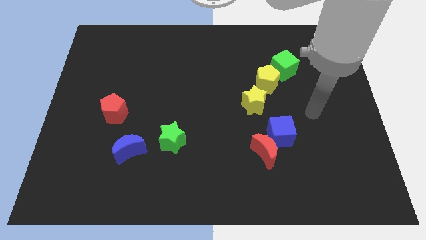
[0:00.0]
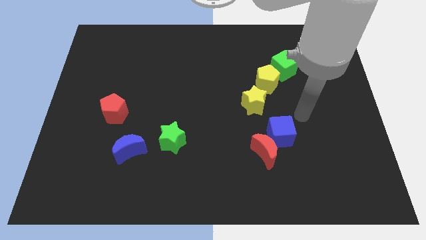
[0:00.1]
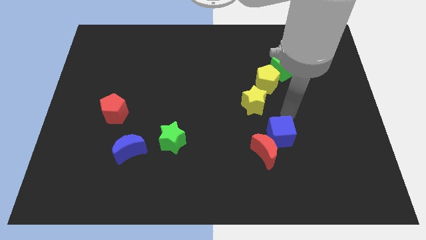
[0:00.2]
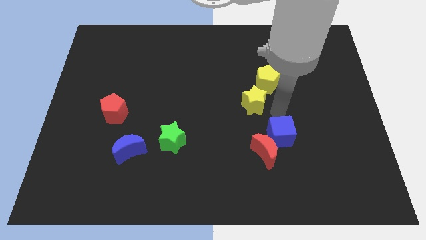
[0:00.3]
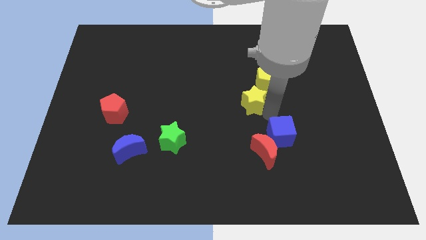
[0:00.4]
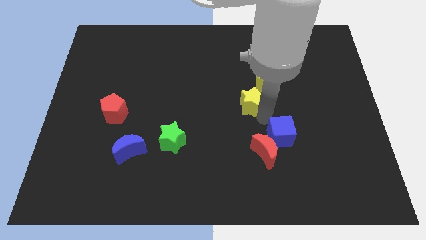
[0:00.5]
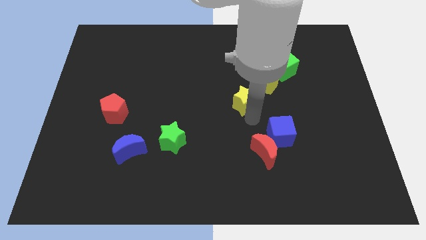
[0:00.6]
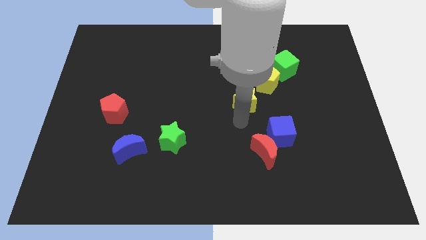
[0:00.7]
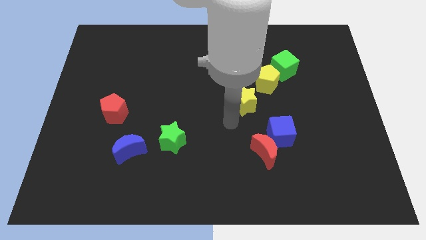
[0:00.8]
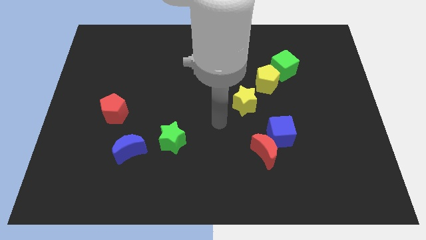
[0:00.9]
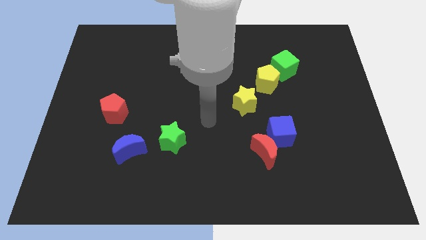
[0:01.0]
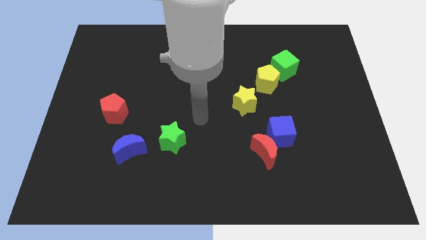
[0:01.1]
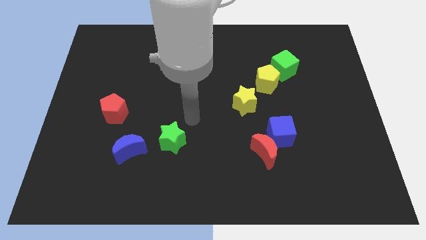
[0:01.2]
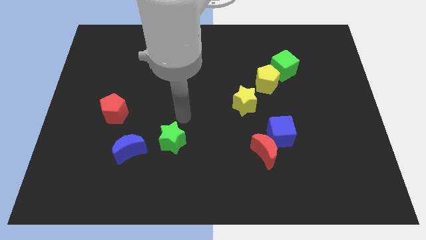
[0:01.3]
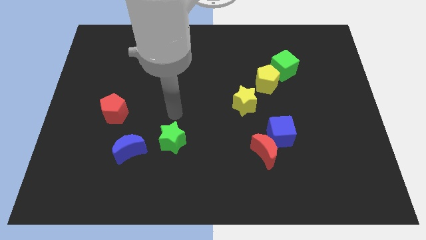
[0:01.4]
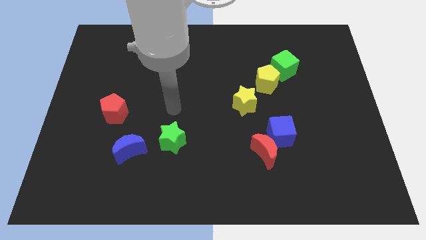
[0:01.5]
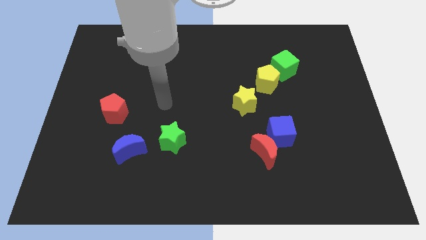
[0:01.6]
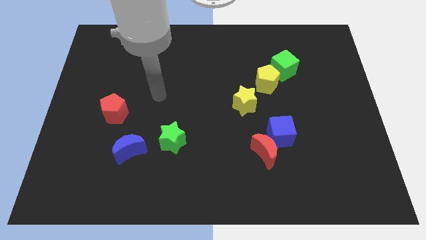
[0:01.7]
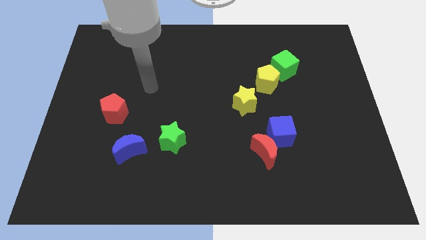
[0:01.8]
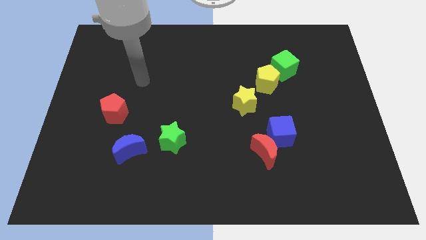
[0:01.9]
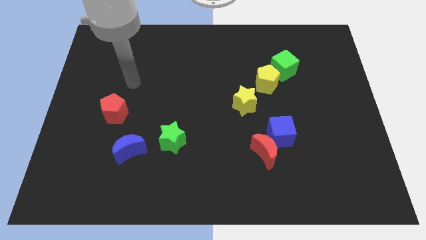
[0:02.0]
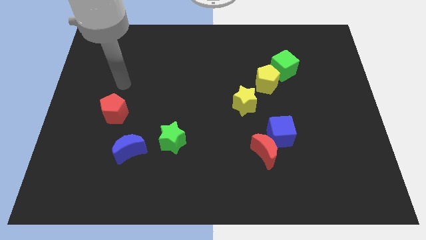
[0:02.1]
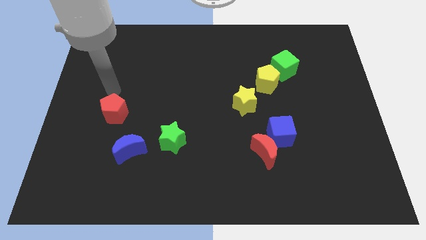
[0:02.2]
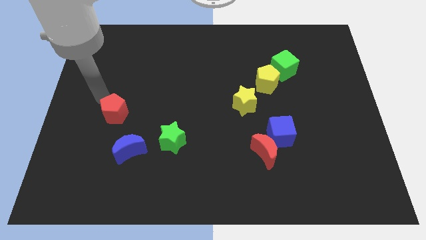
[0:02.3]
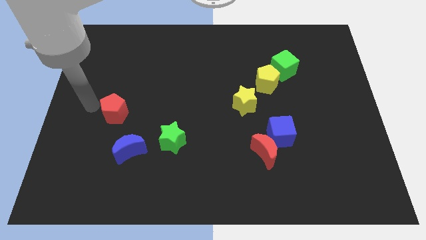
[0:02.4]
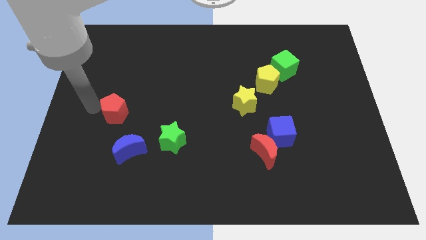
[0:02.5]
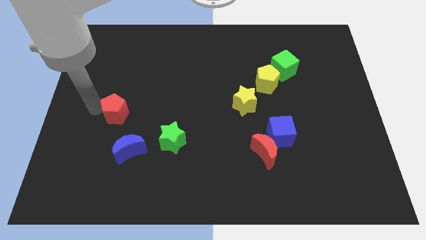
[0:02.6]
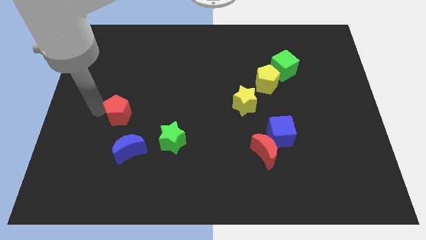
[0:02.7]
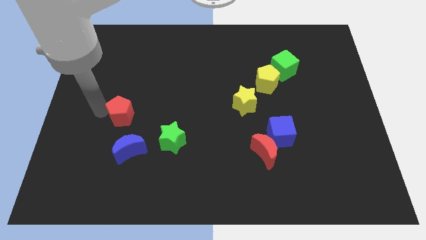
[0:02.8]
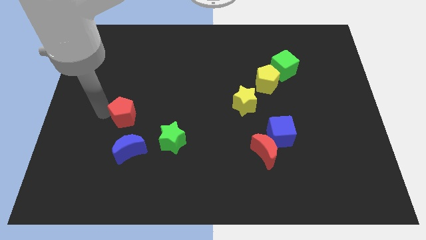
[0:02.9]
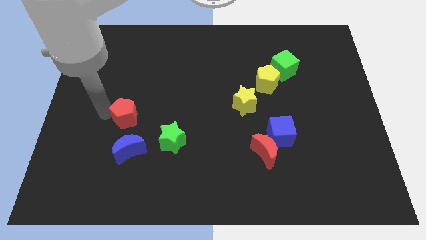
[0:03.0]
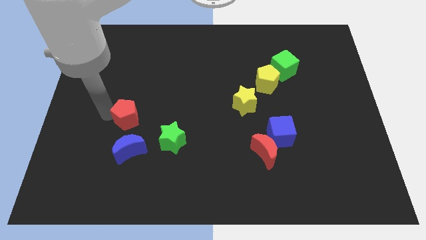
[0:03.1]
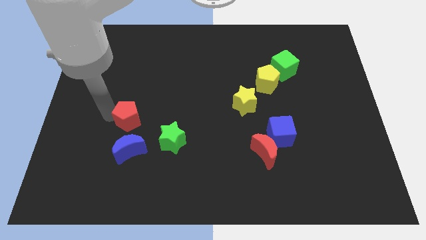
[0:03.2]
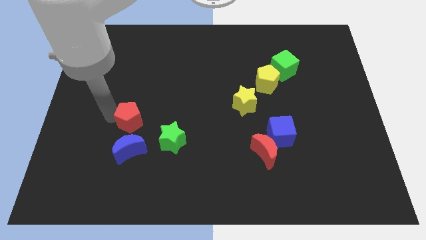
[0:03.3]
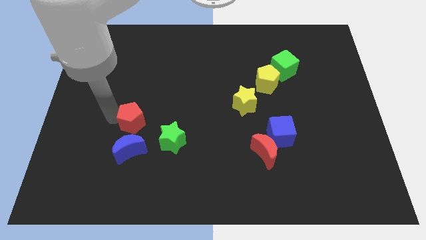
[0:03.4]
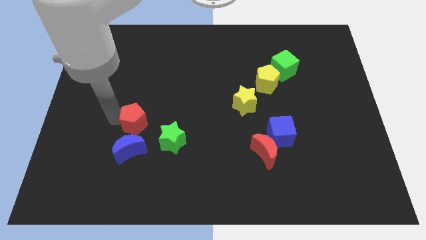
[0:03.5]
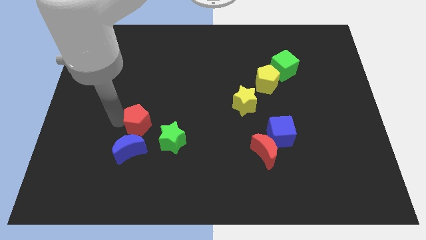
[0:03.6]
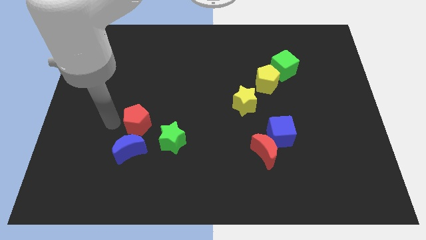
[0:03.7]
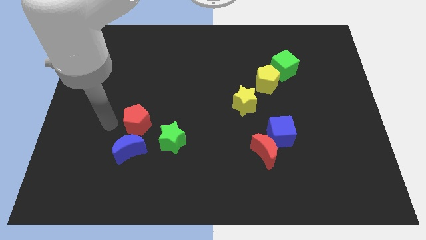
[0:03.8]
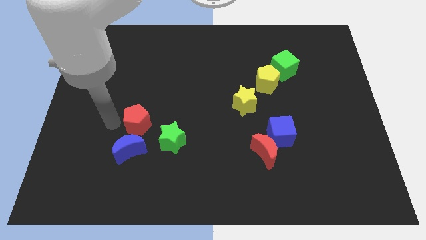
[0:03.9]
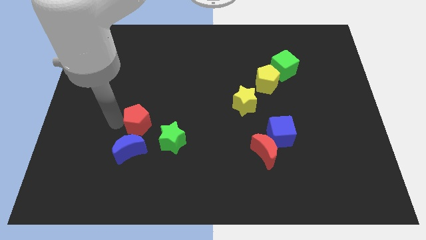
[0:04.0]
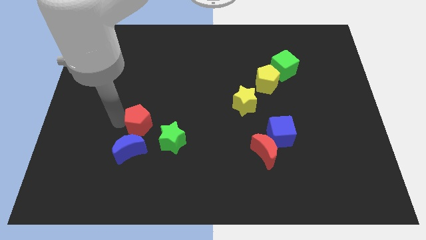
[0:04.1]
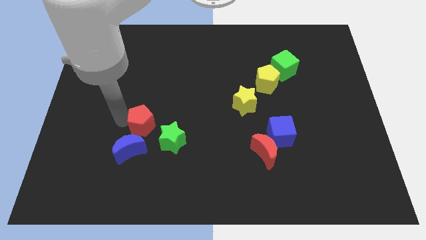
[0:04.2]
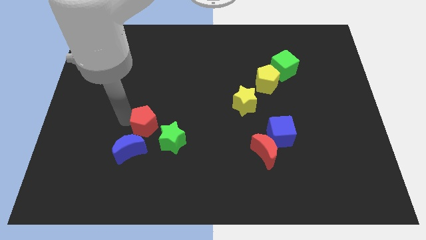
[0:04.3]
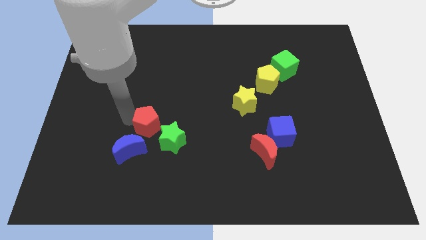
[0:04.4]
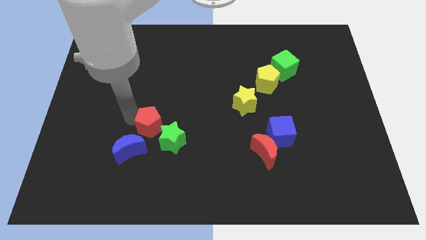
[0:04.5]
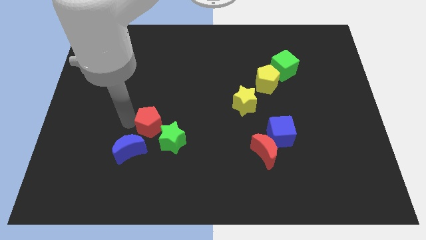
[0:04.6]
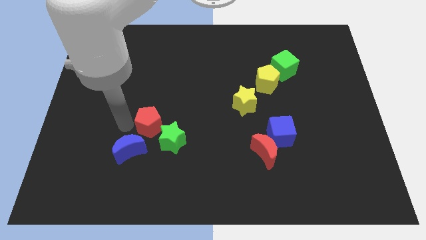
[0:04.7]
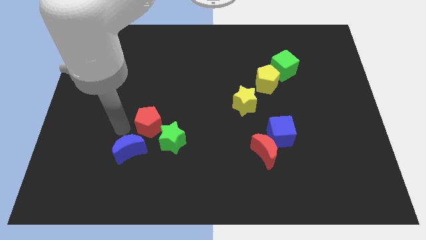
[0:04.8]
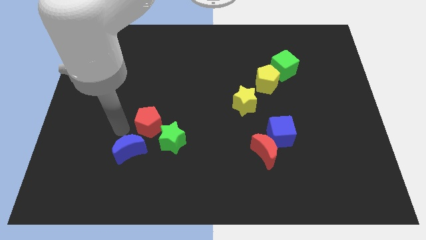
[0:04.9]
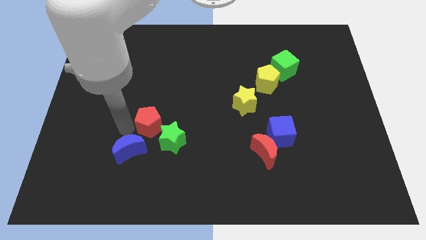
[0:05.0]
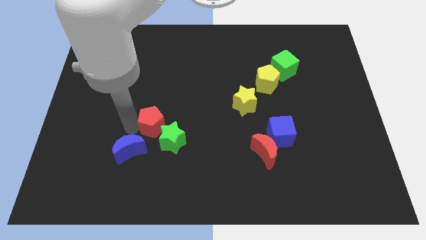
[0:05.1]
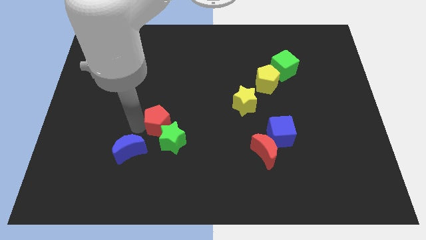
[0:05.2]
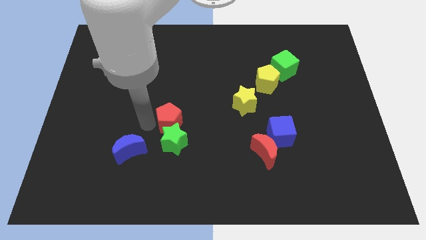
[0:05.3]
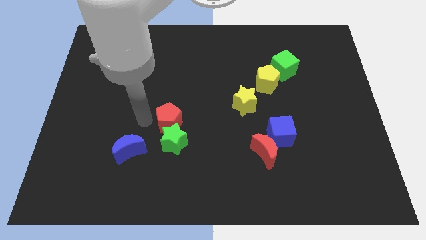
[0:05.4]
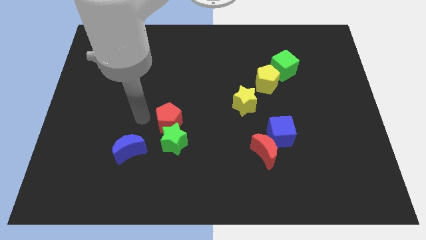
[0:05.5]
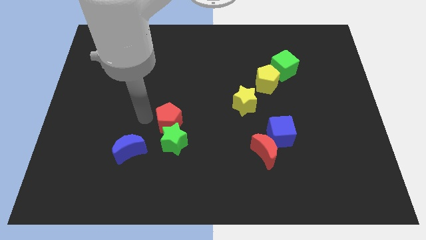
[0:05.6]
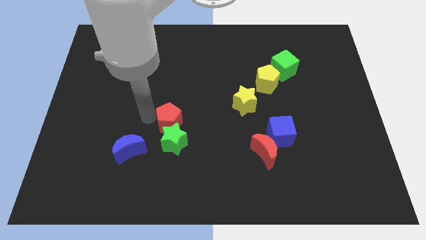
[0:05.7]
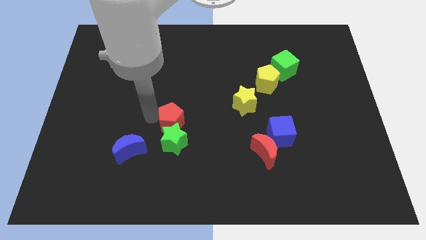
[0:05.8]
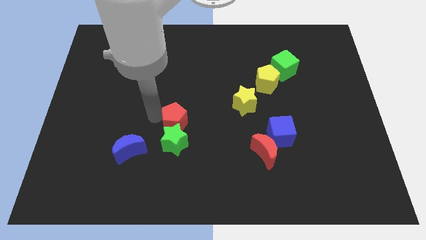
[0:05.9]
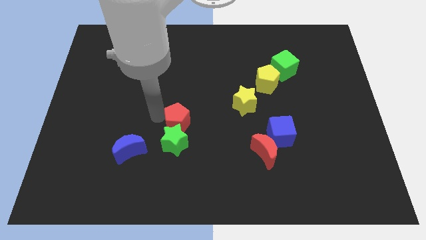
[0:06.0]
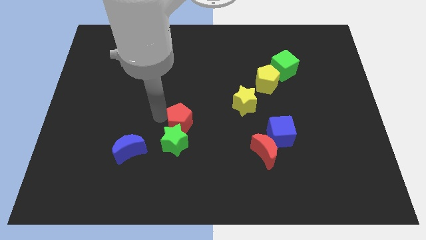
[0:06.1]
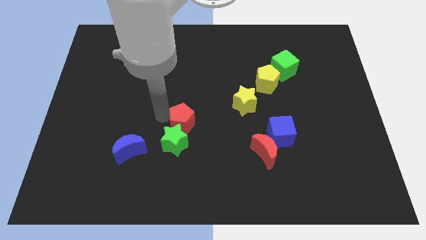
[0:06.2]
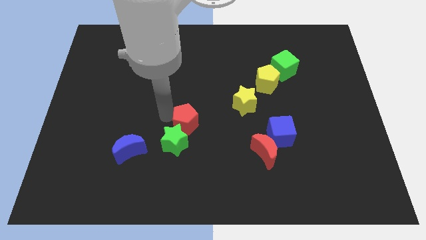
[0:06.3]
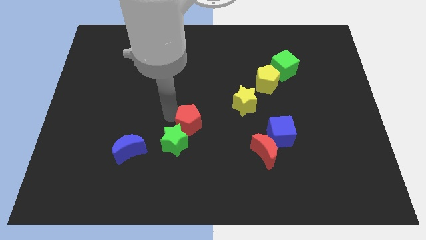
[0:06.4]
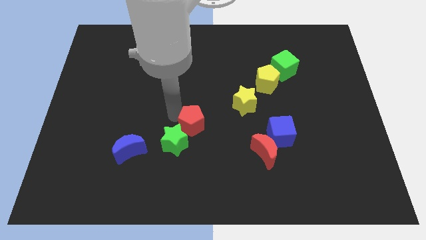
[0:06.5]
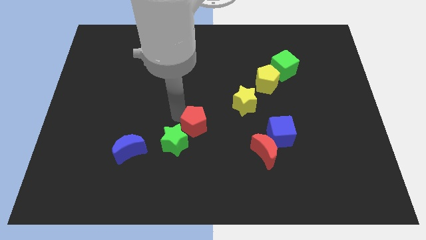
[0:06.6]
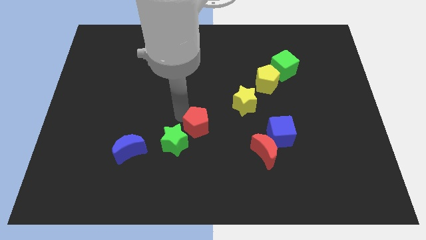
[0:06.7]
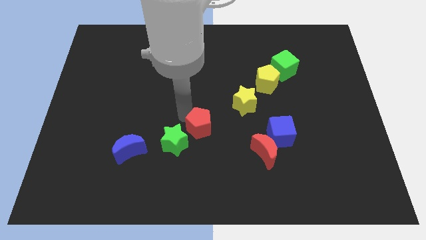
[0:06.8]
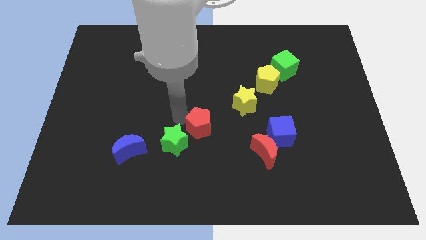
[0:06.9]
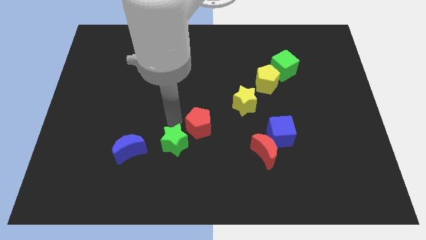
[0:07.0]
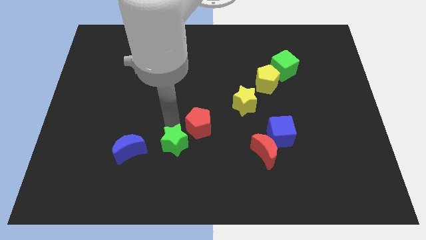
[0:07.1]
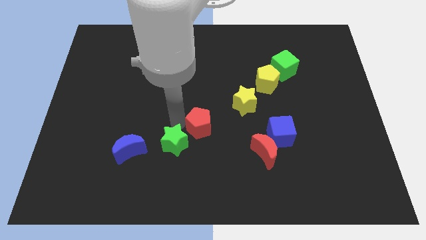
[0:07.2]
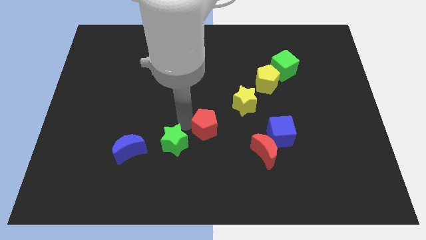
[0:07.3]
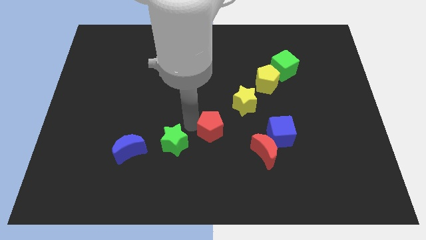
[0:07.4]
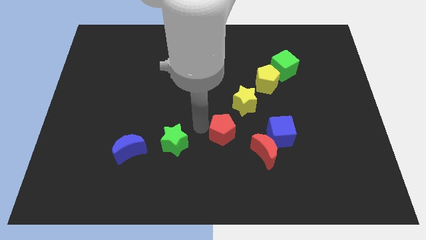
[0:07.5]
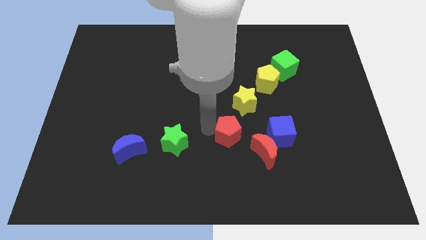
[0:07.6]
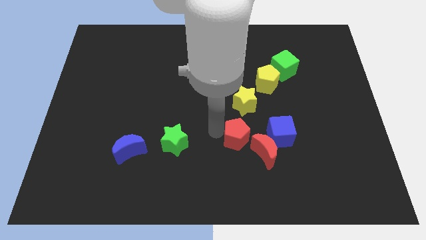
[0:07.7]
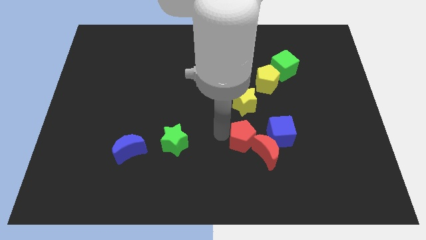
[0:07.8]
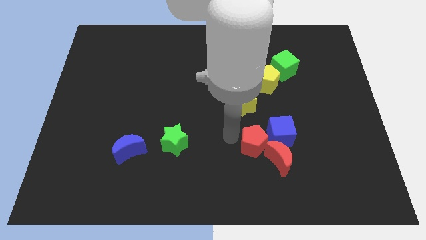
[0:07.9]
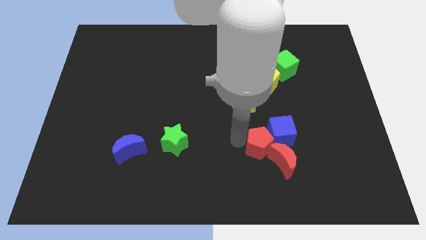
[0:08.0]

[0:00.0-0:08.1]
move the red pentagon next to the blue cube
